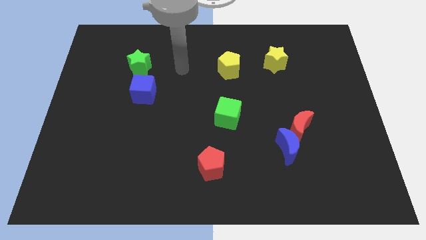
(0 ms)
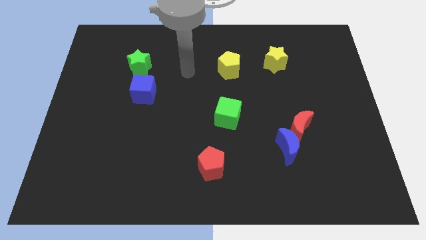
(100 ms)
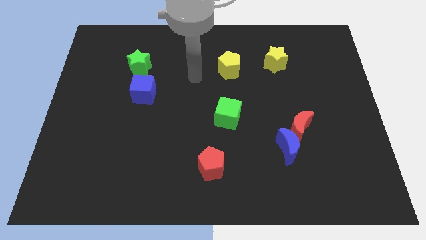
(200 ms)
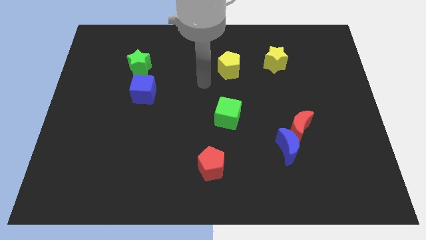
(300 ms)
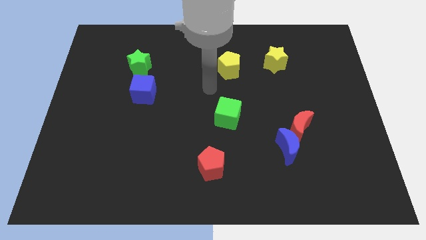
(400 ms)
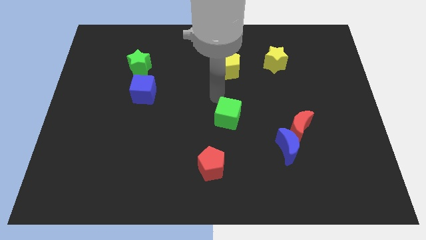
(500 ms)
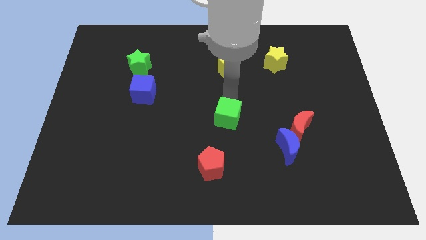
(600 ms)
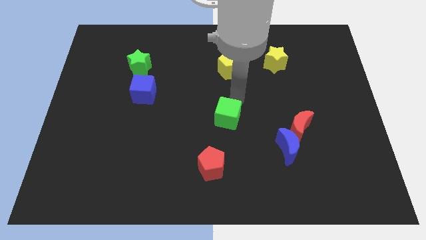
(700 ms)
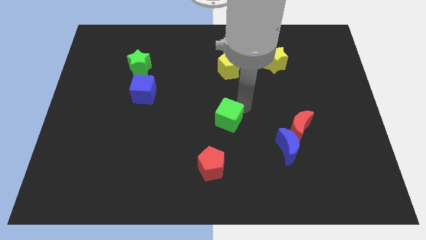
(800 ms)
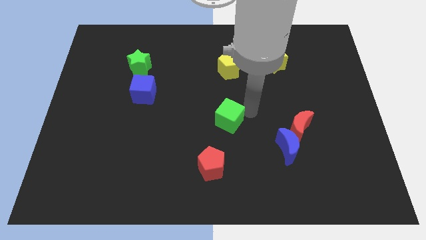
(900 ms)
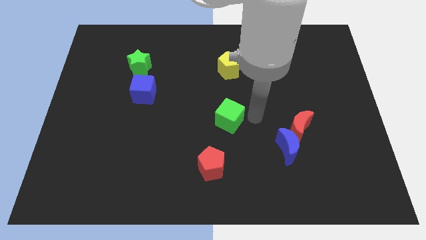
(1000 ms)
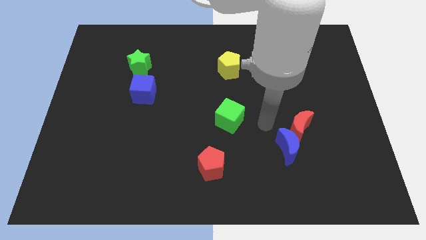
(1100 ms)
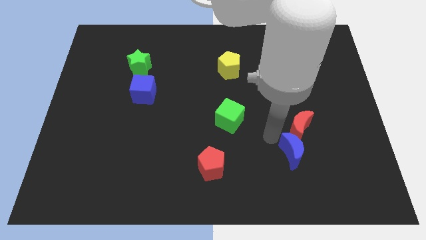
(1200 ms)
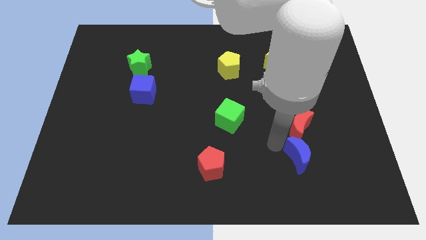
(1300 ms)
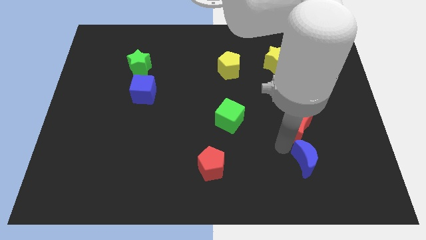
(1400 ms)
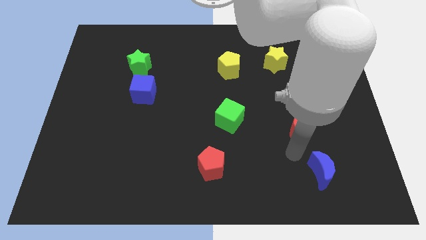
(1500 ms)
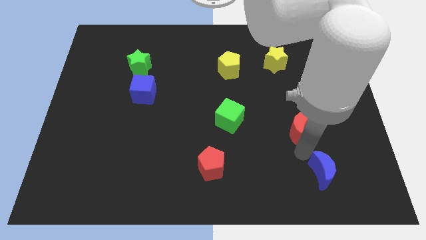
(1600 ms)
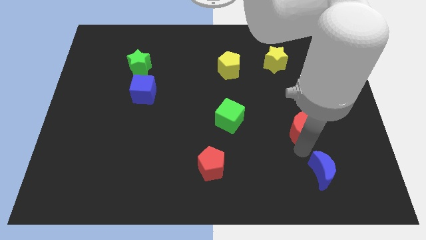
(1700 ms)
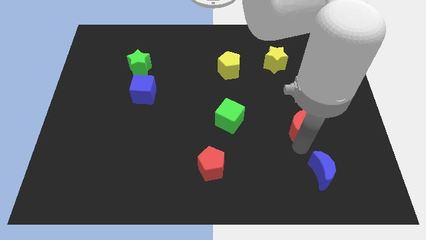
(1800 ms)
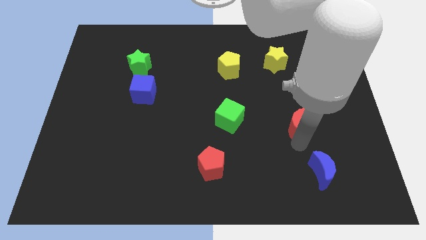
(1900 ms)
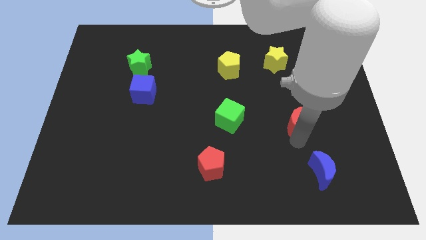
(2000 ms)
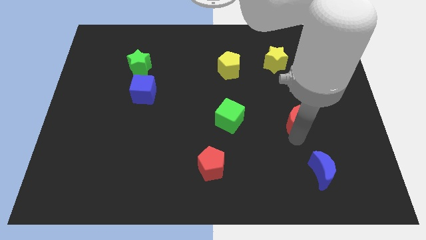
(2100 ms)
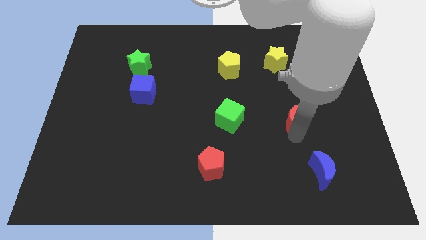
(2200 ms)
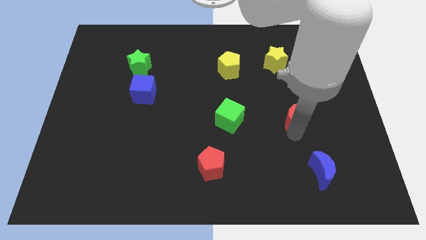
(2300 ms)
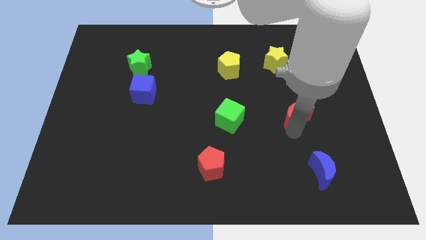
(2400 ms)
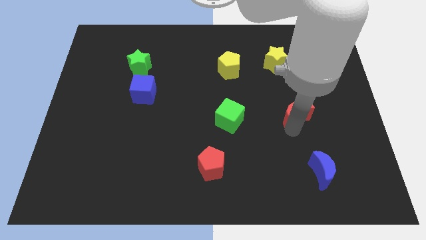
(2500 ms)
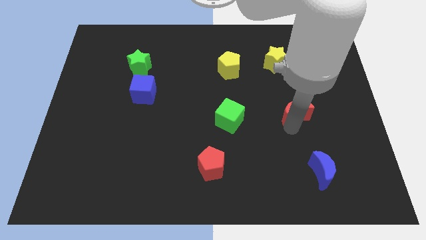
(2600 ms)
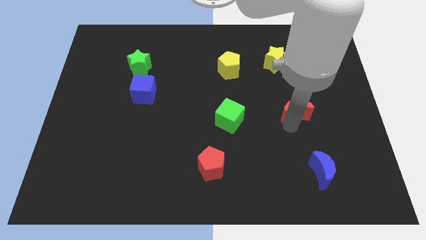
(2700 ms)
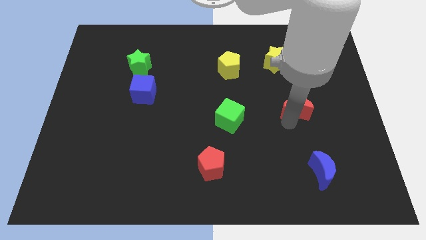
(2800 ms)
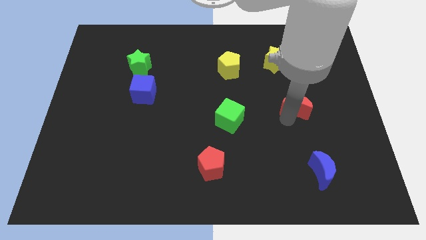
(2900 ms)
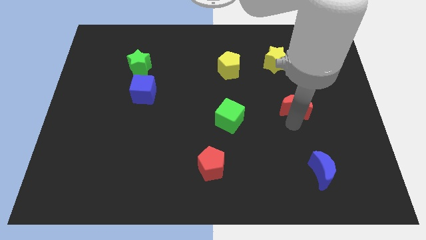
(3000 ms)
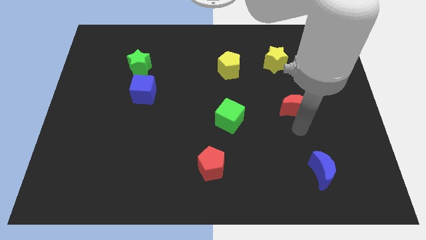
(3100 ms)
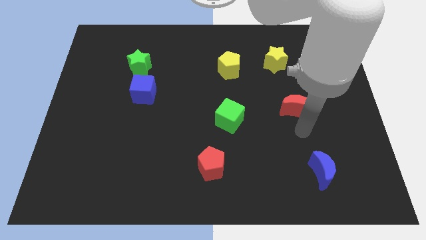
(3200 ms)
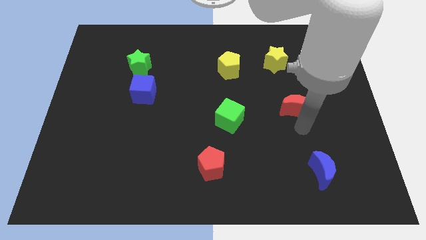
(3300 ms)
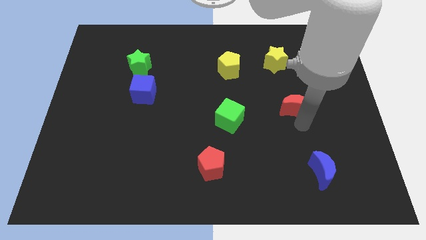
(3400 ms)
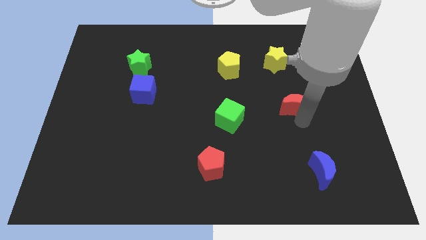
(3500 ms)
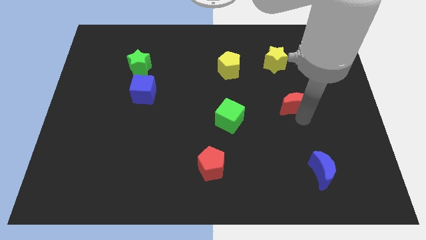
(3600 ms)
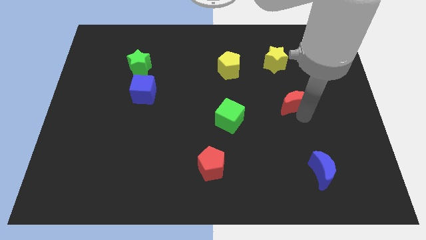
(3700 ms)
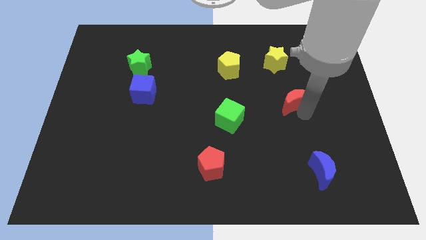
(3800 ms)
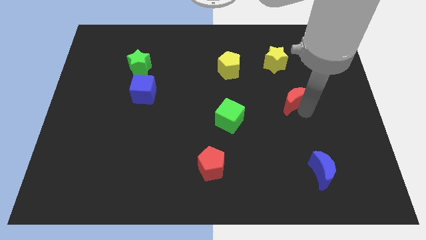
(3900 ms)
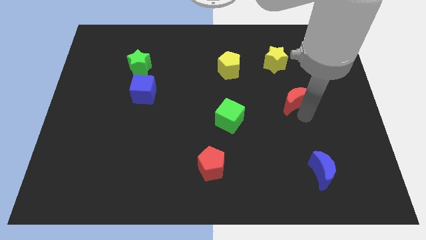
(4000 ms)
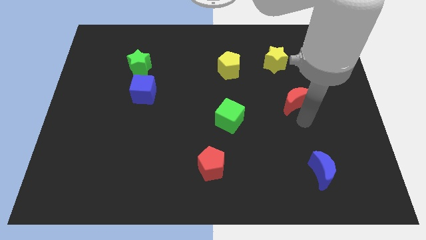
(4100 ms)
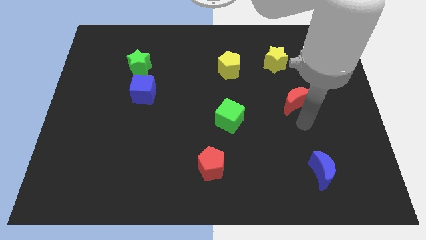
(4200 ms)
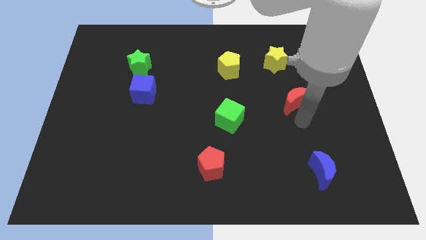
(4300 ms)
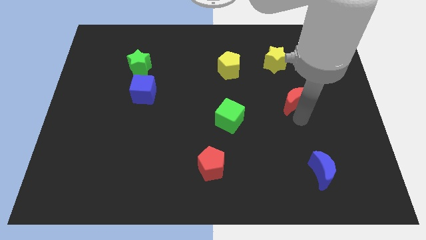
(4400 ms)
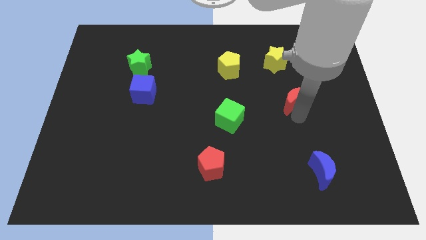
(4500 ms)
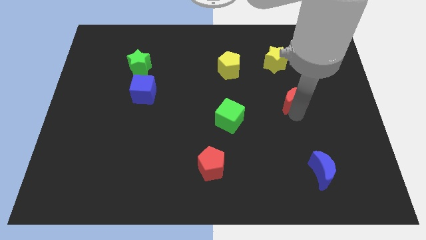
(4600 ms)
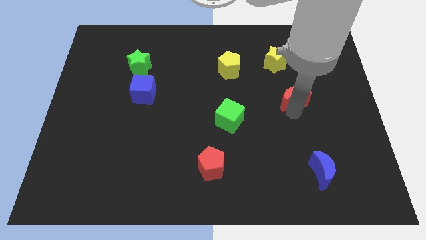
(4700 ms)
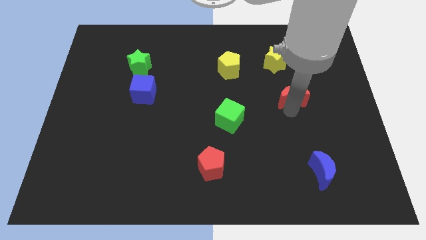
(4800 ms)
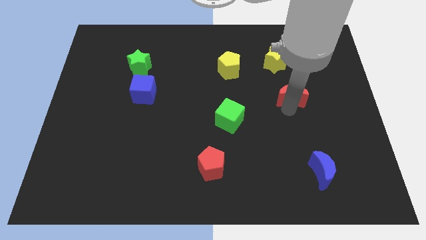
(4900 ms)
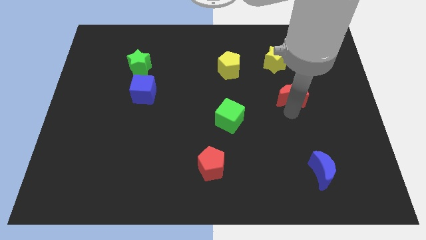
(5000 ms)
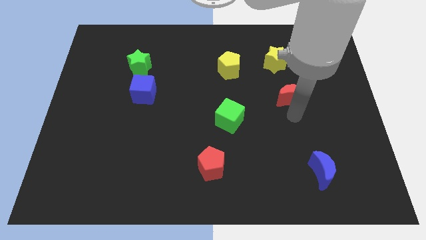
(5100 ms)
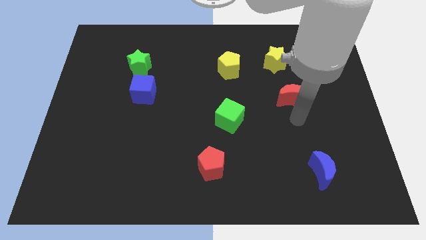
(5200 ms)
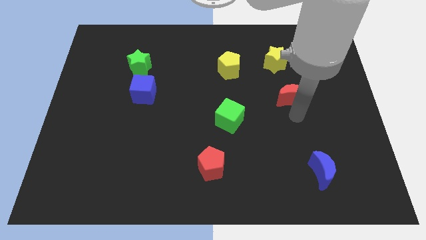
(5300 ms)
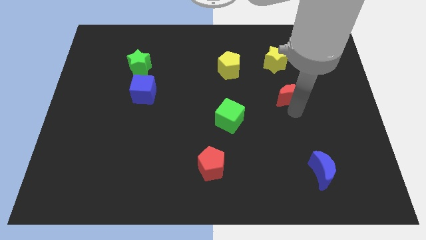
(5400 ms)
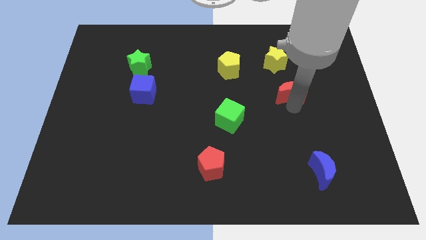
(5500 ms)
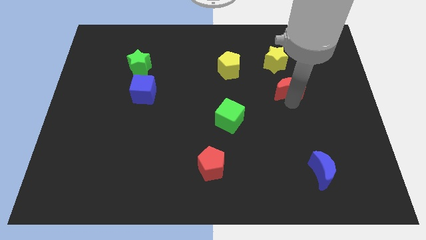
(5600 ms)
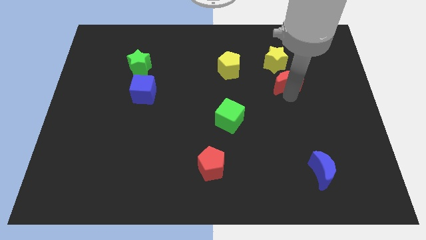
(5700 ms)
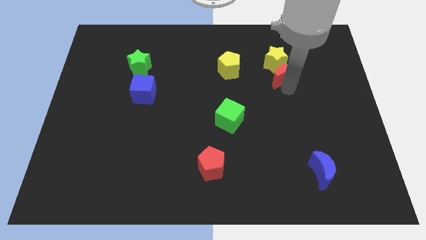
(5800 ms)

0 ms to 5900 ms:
put the red moon towards the yellow star

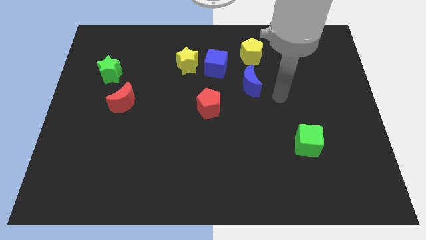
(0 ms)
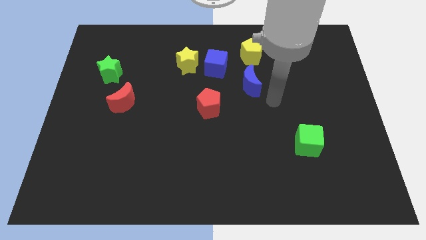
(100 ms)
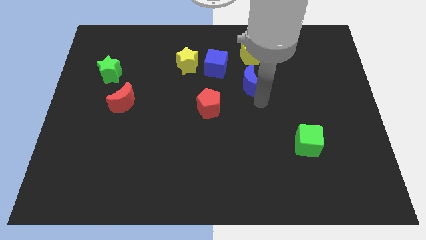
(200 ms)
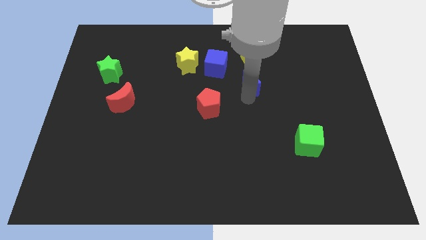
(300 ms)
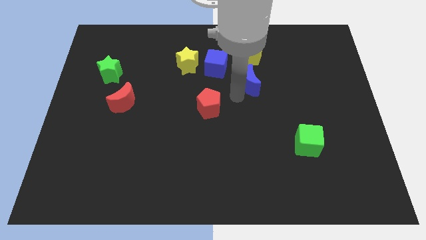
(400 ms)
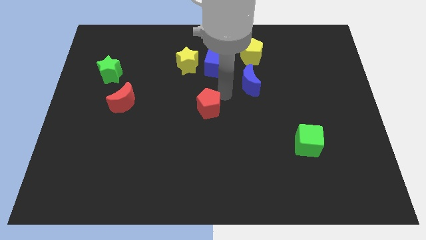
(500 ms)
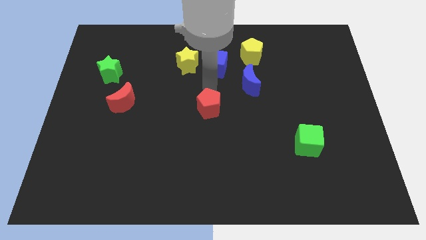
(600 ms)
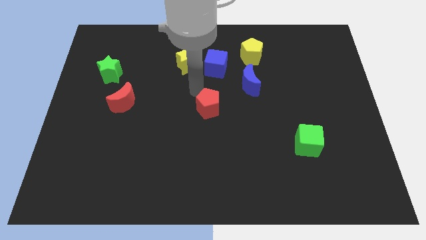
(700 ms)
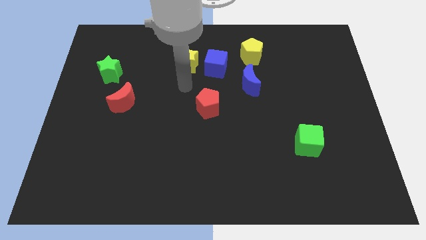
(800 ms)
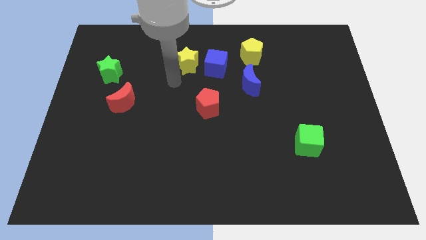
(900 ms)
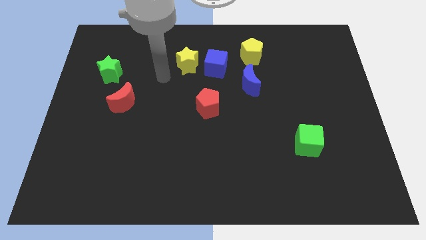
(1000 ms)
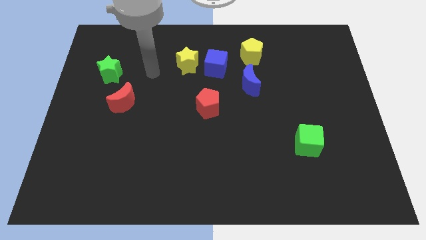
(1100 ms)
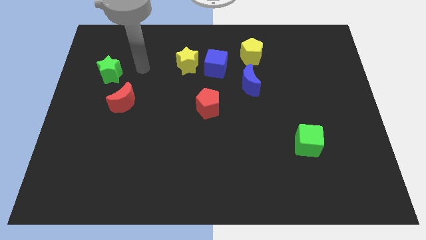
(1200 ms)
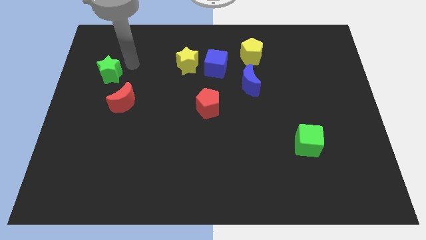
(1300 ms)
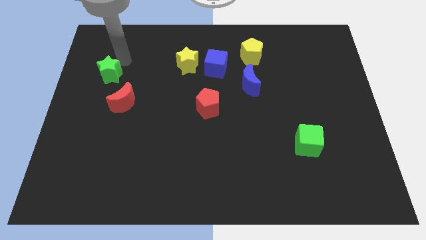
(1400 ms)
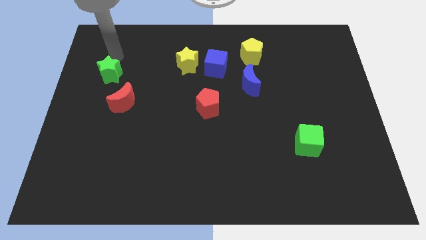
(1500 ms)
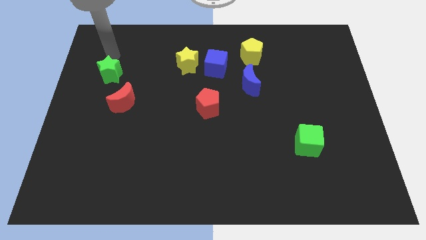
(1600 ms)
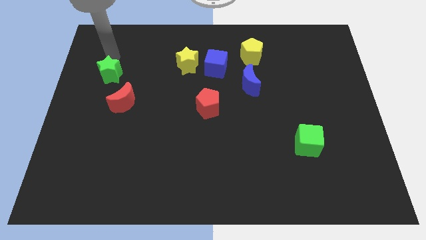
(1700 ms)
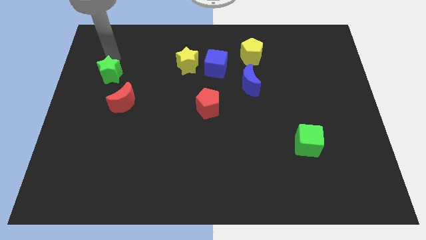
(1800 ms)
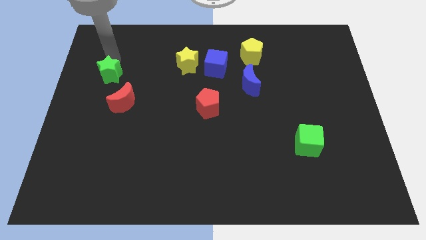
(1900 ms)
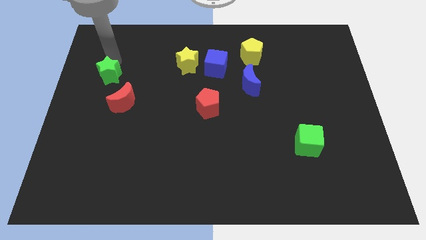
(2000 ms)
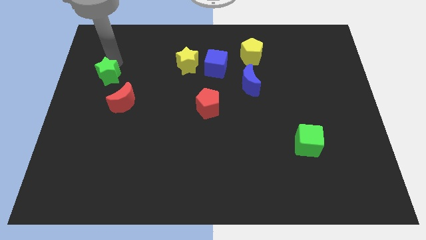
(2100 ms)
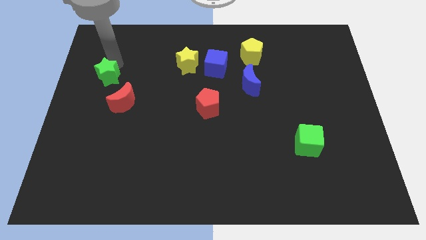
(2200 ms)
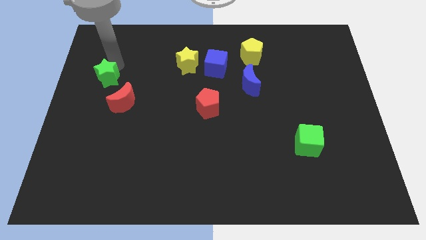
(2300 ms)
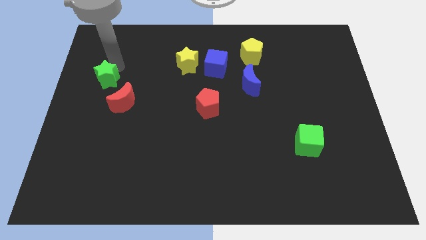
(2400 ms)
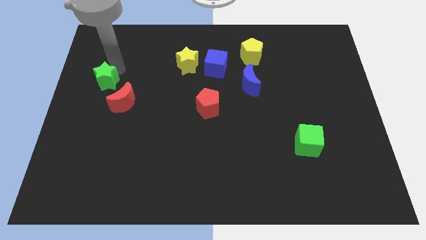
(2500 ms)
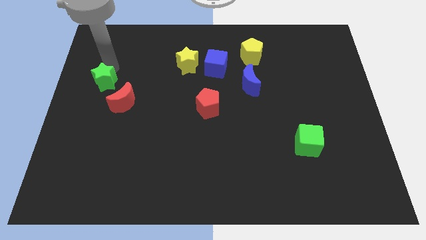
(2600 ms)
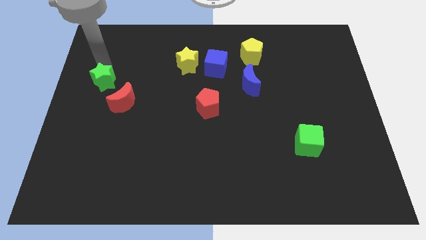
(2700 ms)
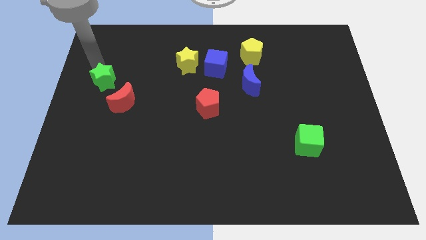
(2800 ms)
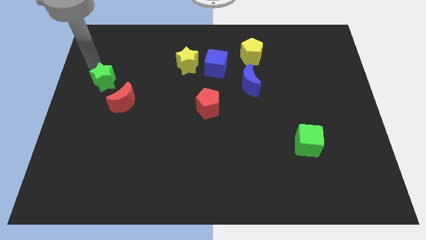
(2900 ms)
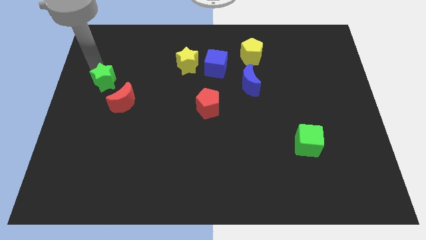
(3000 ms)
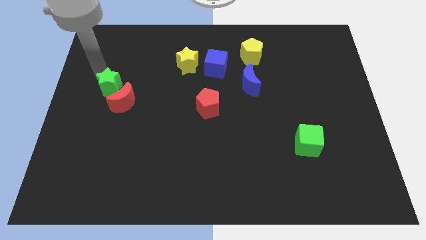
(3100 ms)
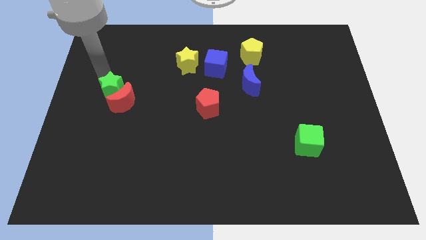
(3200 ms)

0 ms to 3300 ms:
push the green star to the red moon
